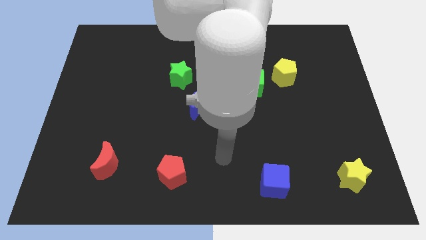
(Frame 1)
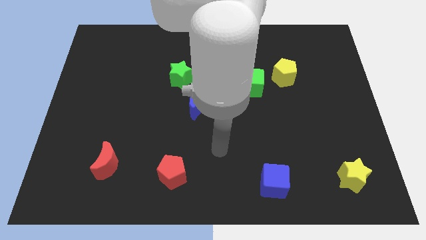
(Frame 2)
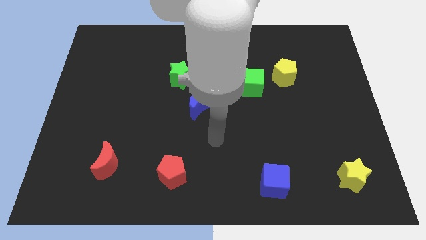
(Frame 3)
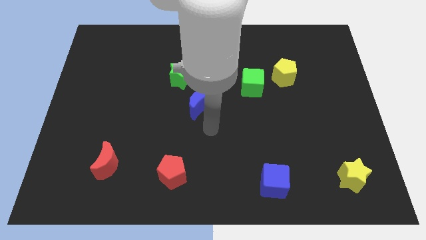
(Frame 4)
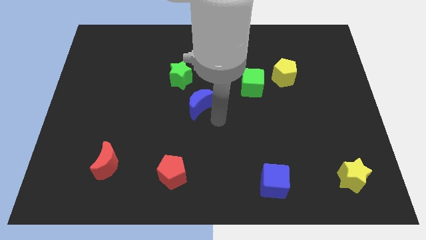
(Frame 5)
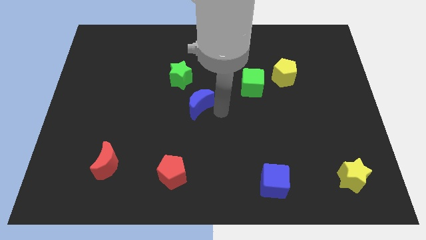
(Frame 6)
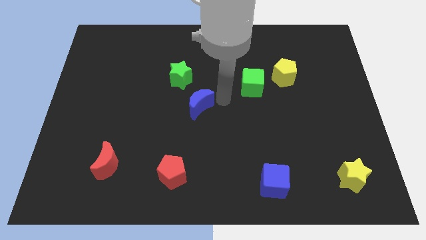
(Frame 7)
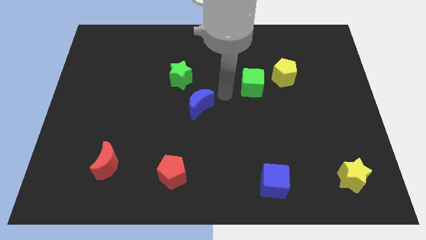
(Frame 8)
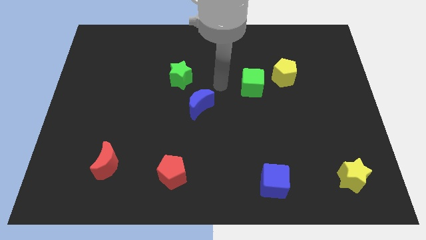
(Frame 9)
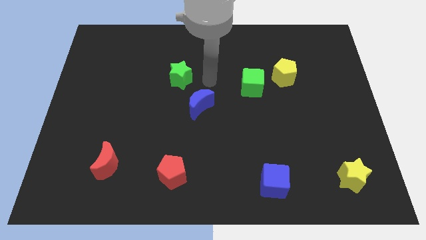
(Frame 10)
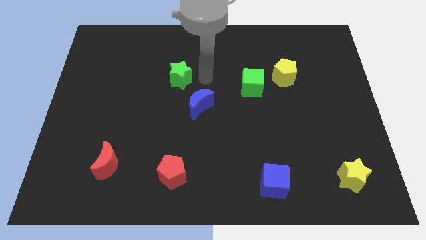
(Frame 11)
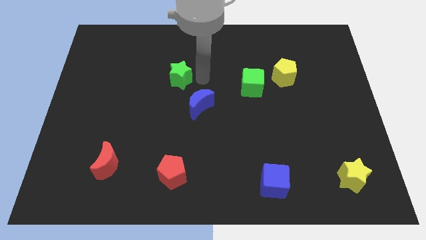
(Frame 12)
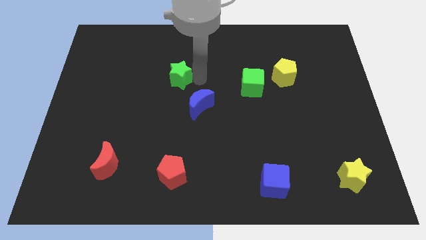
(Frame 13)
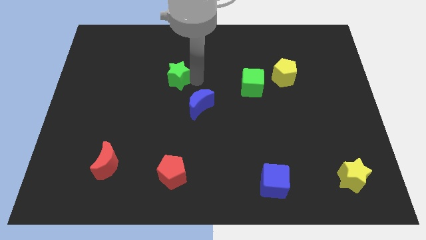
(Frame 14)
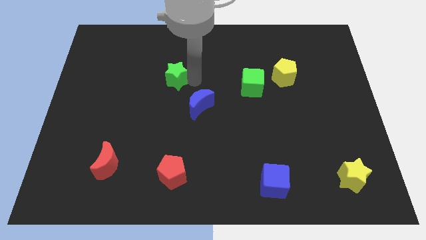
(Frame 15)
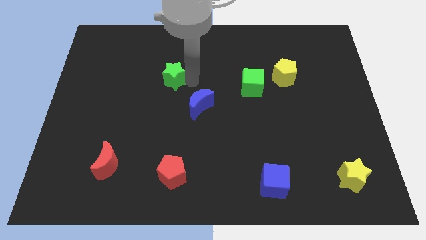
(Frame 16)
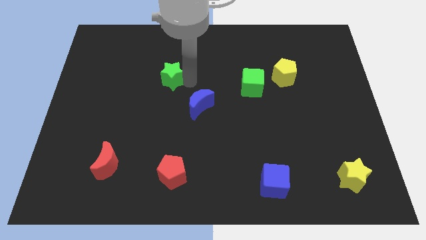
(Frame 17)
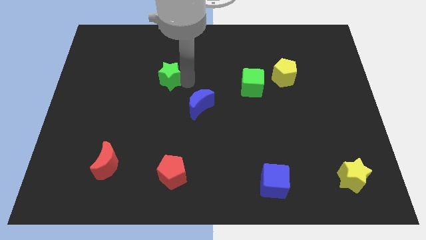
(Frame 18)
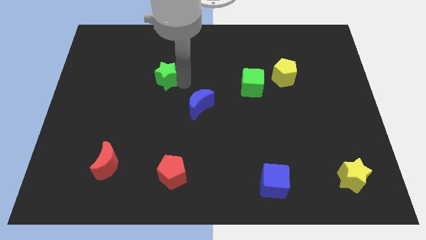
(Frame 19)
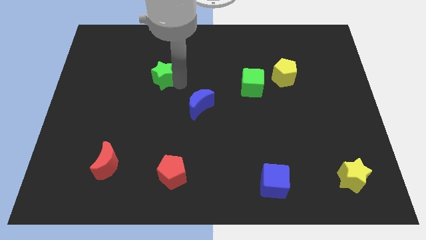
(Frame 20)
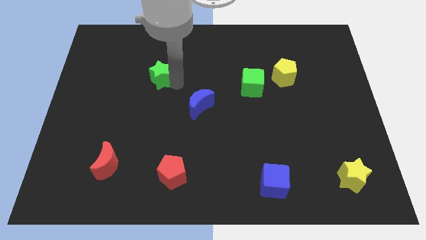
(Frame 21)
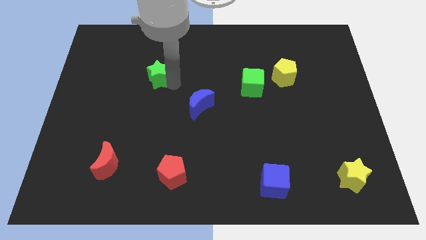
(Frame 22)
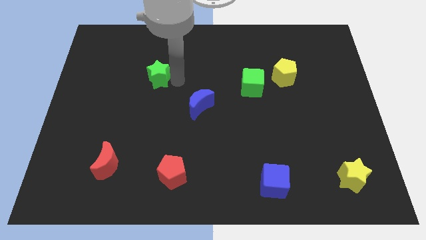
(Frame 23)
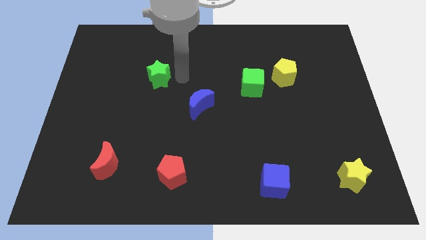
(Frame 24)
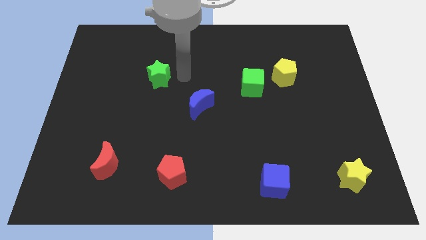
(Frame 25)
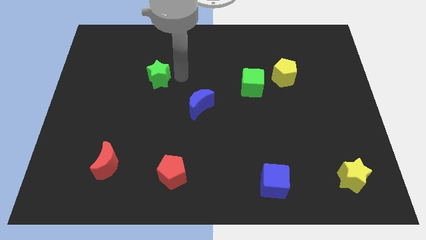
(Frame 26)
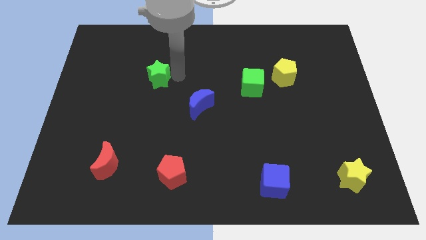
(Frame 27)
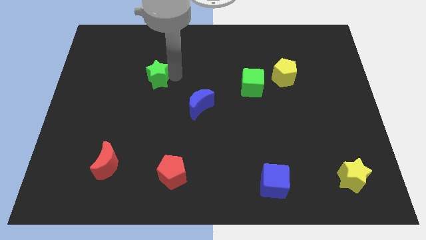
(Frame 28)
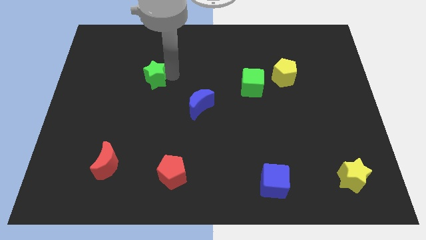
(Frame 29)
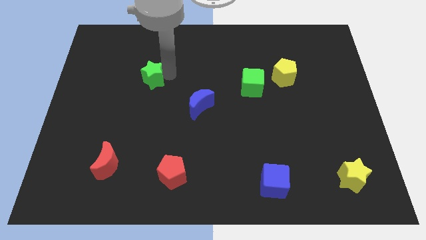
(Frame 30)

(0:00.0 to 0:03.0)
push the green star a little to the left

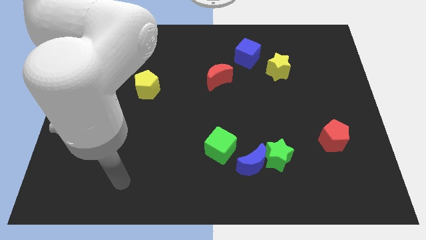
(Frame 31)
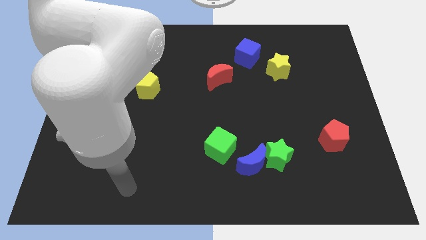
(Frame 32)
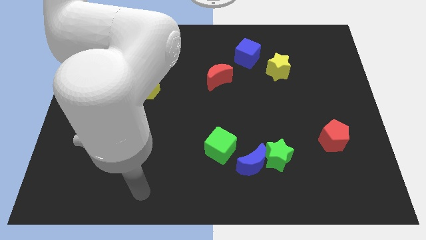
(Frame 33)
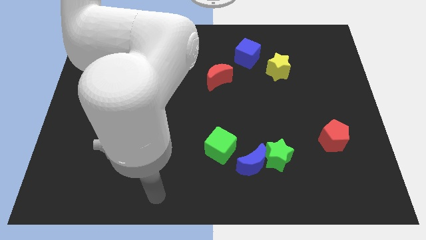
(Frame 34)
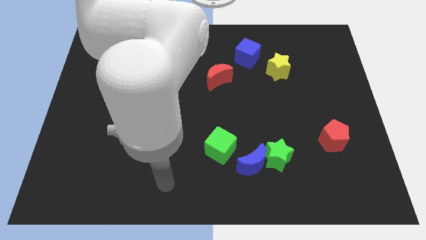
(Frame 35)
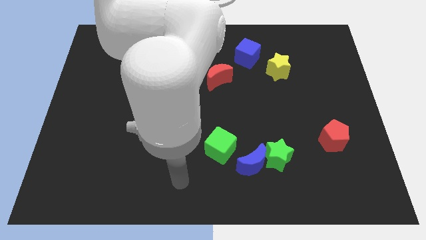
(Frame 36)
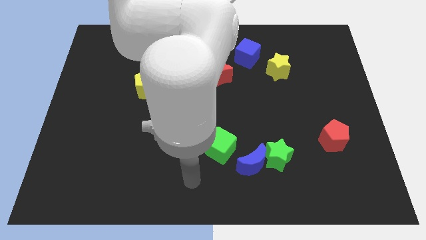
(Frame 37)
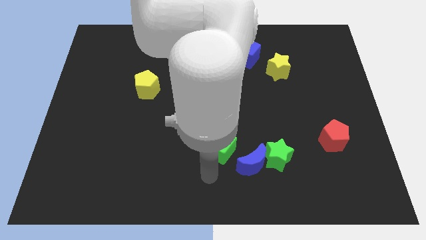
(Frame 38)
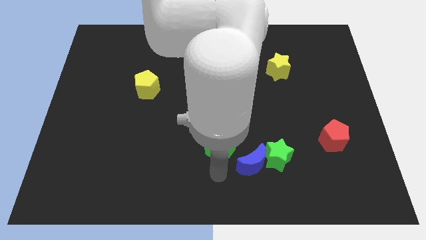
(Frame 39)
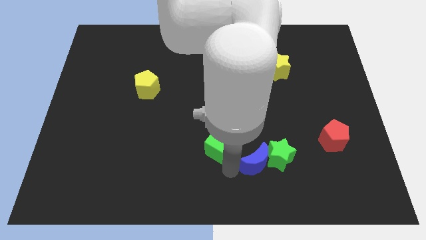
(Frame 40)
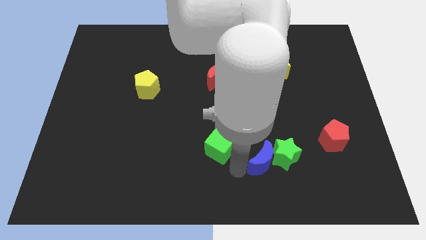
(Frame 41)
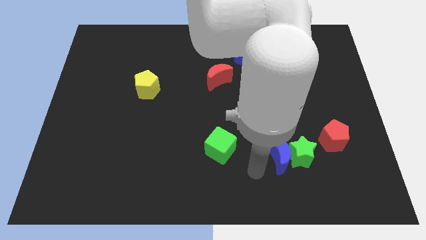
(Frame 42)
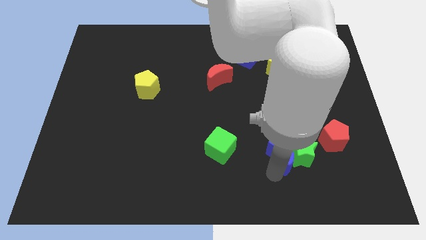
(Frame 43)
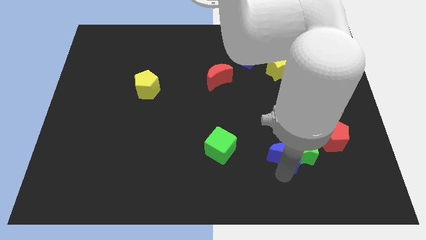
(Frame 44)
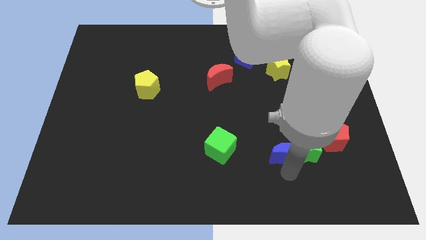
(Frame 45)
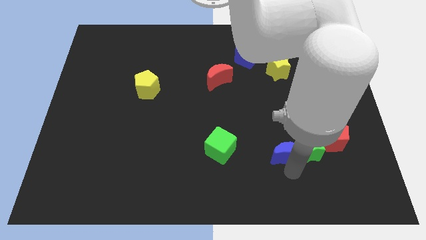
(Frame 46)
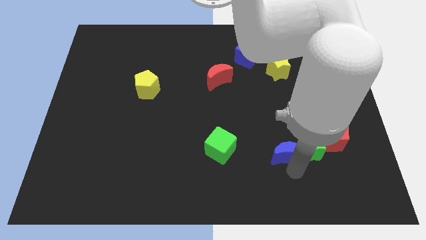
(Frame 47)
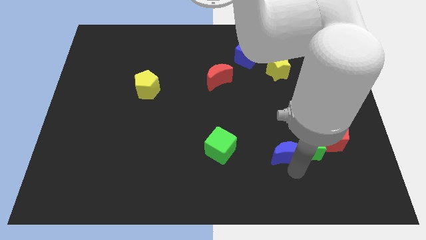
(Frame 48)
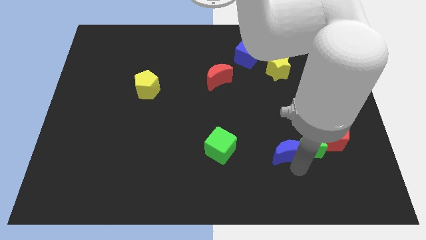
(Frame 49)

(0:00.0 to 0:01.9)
move the green star up and right a little bit

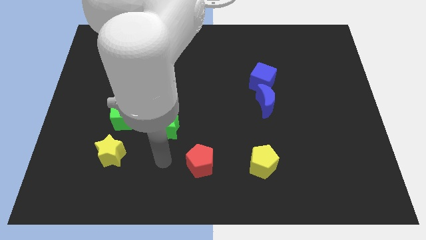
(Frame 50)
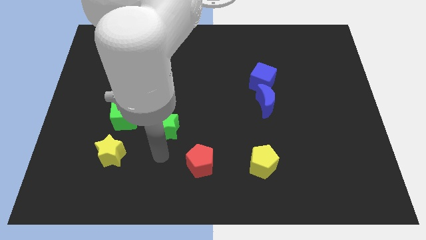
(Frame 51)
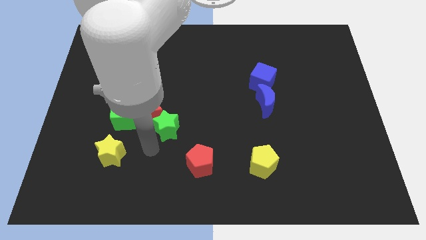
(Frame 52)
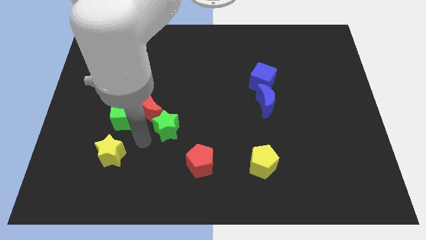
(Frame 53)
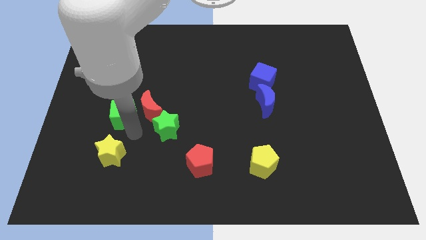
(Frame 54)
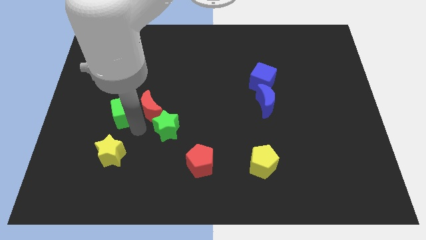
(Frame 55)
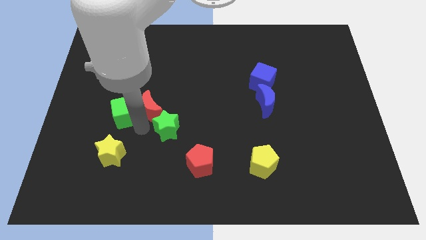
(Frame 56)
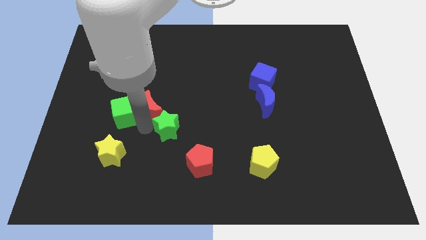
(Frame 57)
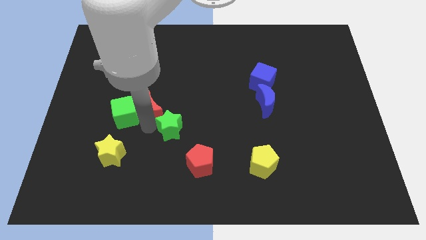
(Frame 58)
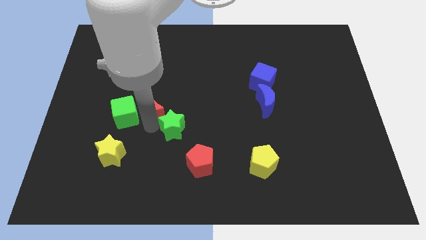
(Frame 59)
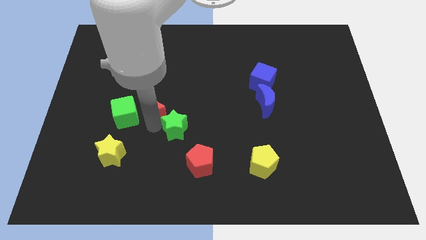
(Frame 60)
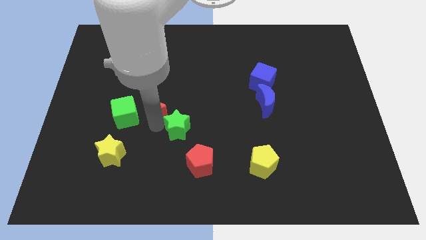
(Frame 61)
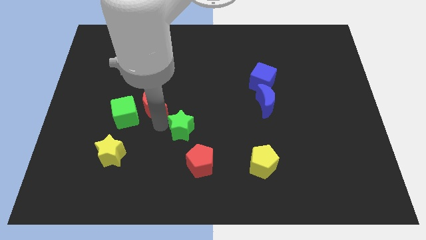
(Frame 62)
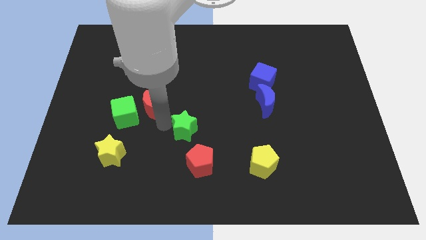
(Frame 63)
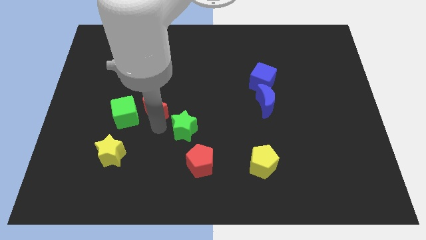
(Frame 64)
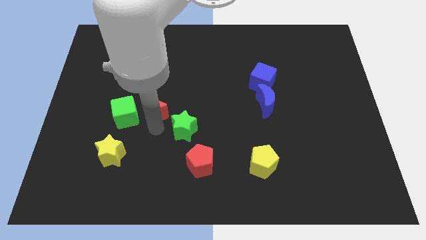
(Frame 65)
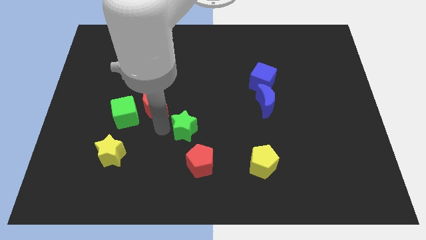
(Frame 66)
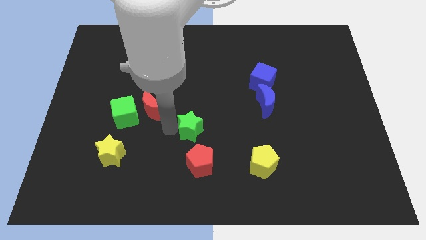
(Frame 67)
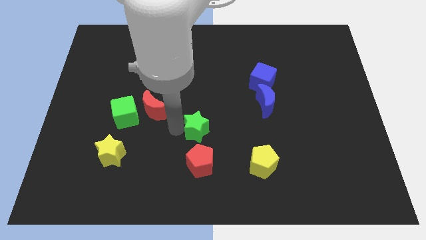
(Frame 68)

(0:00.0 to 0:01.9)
slightly slide the green star right

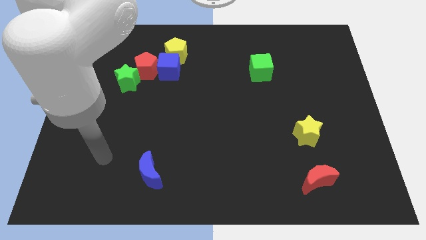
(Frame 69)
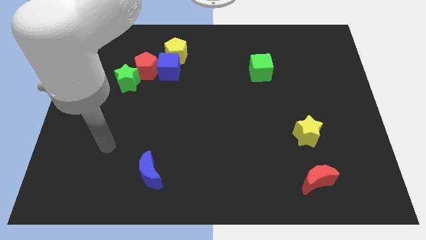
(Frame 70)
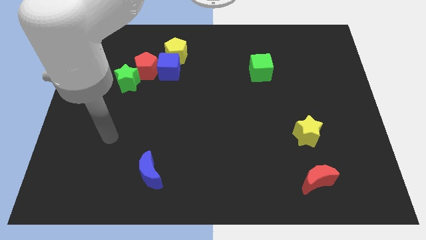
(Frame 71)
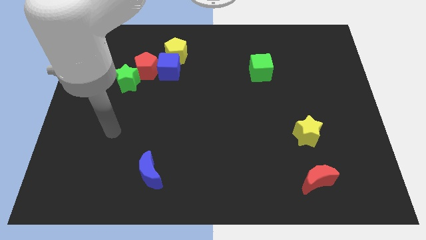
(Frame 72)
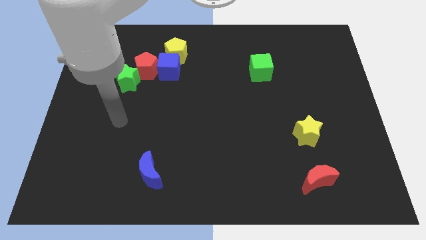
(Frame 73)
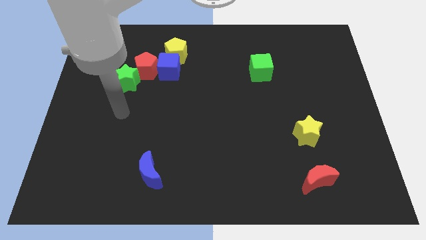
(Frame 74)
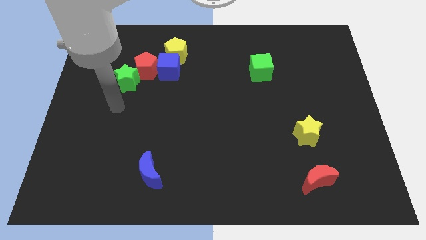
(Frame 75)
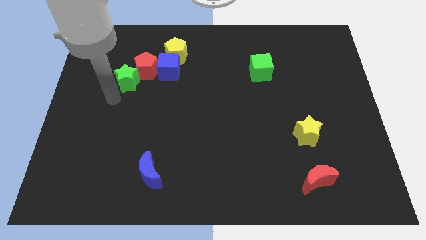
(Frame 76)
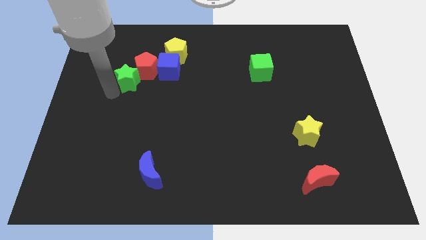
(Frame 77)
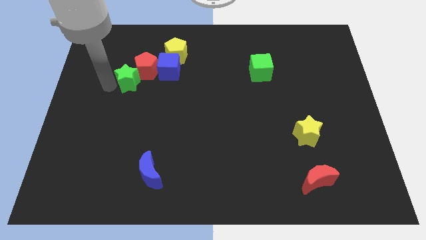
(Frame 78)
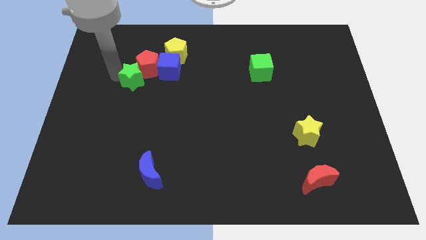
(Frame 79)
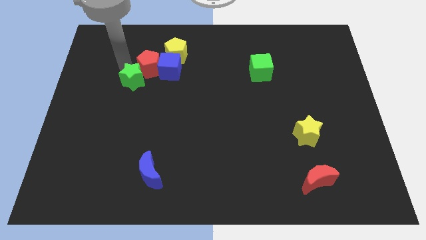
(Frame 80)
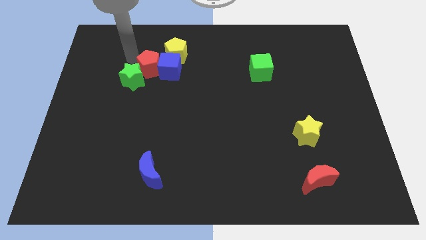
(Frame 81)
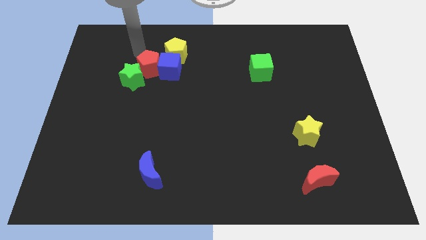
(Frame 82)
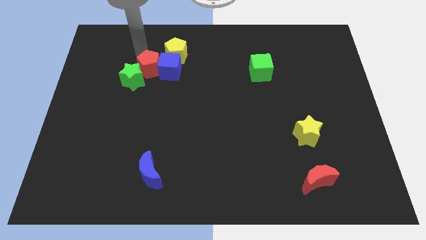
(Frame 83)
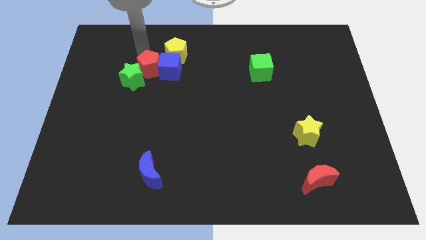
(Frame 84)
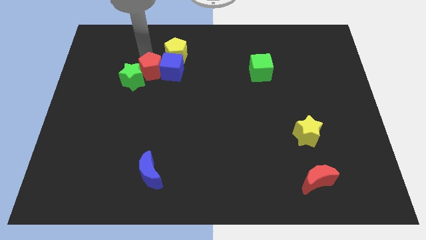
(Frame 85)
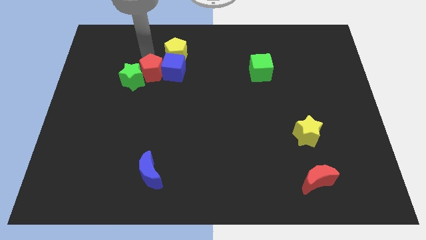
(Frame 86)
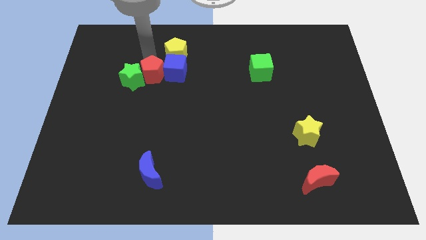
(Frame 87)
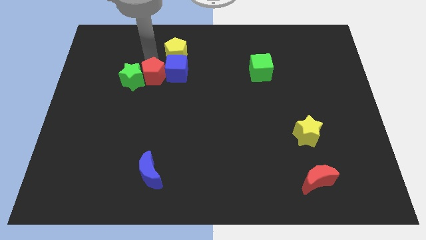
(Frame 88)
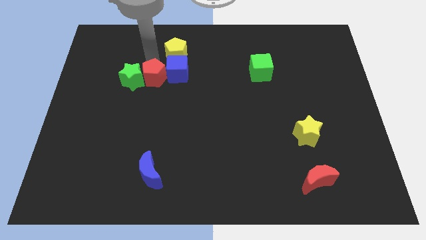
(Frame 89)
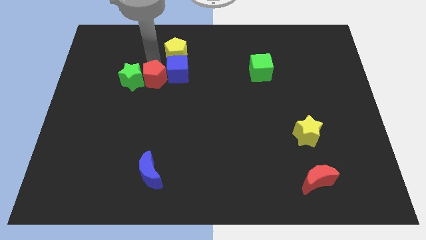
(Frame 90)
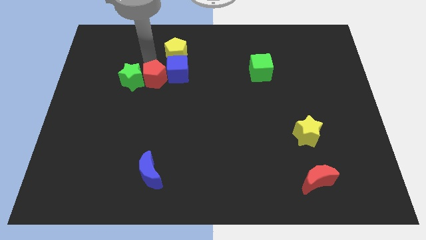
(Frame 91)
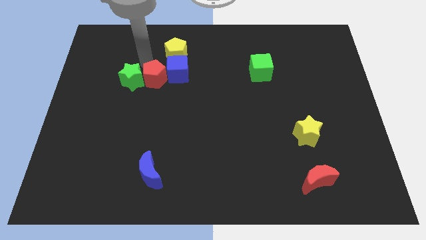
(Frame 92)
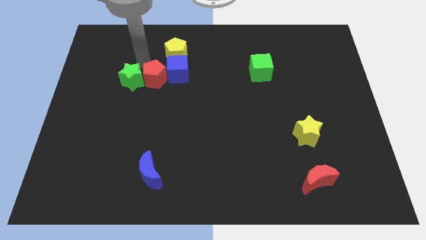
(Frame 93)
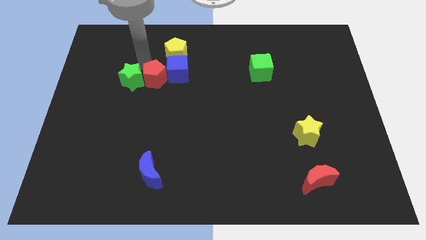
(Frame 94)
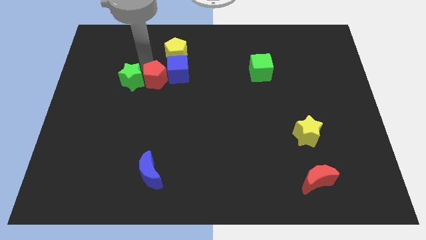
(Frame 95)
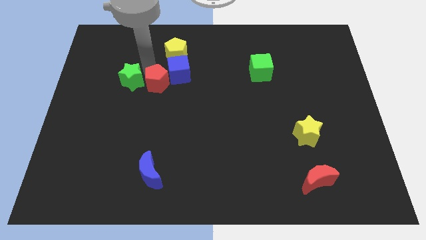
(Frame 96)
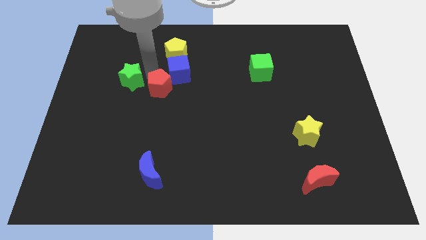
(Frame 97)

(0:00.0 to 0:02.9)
slightly move the red pentagon downwards and then to the right
